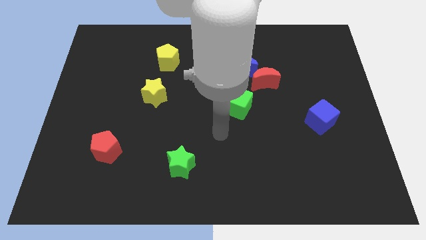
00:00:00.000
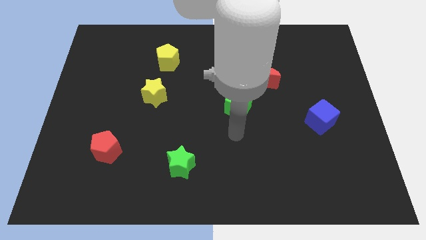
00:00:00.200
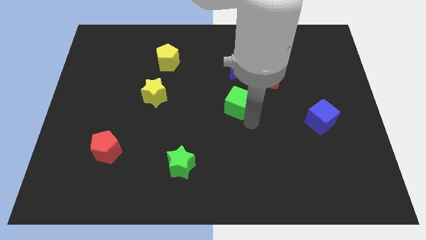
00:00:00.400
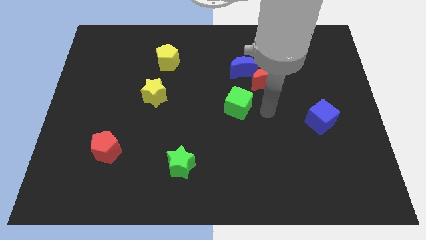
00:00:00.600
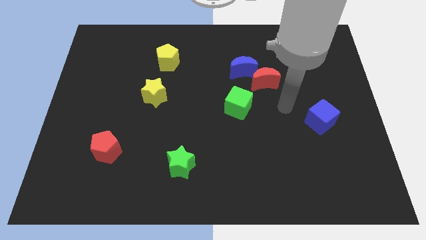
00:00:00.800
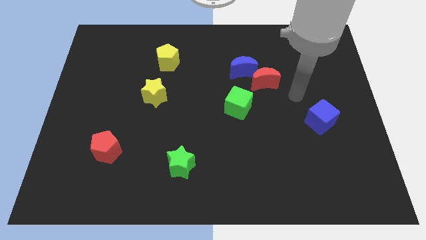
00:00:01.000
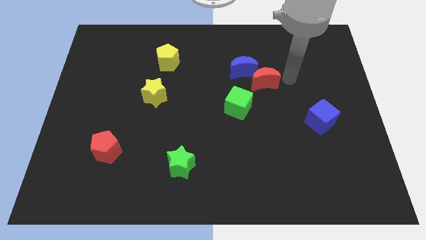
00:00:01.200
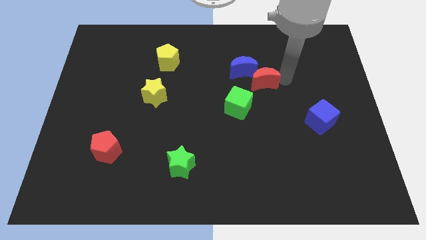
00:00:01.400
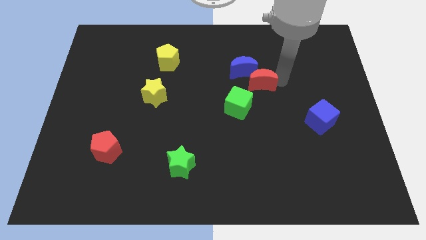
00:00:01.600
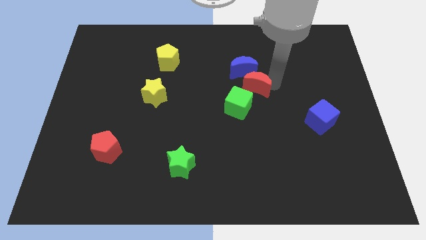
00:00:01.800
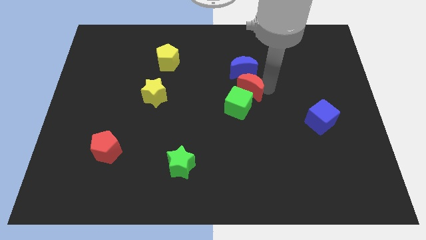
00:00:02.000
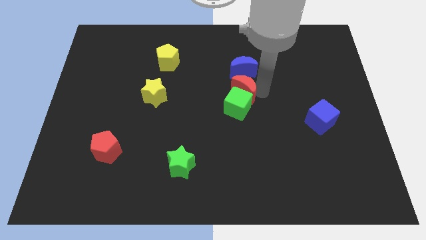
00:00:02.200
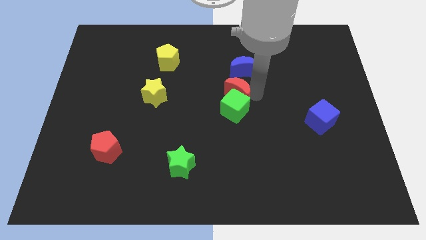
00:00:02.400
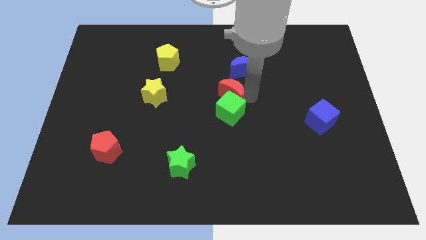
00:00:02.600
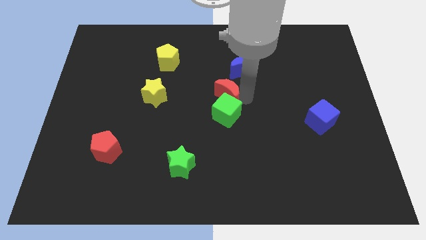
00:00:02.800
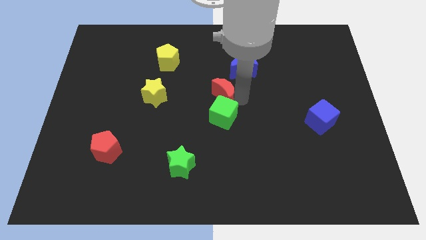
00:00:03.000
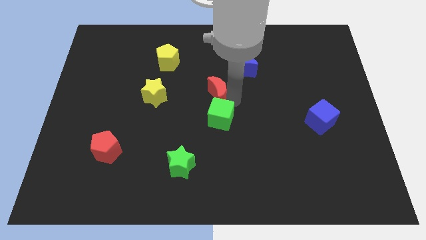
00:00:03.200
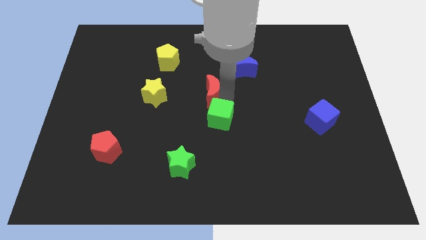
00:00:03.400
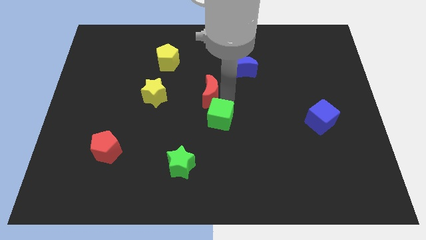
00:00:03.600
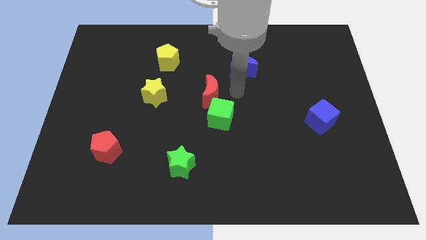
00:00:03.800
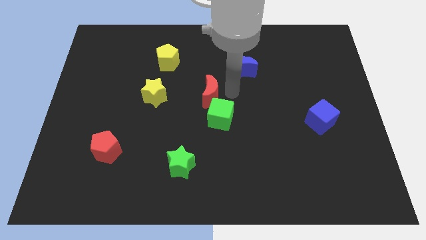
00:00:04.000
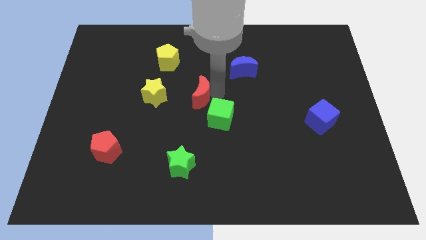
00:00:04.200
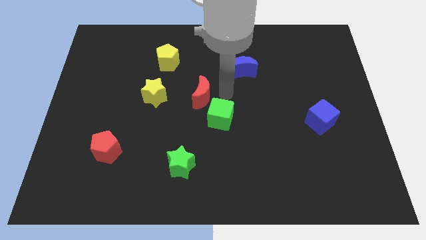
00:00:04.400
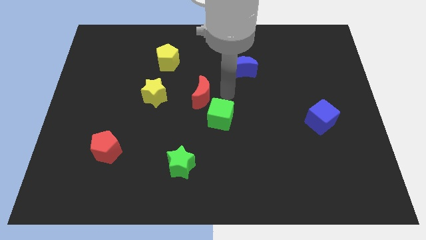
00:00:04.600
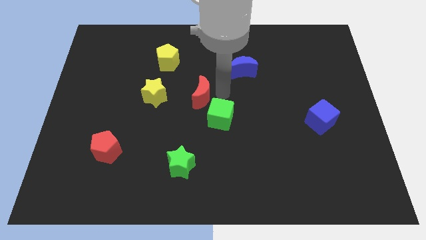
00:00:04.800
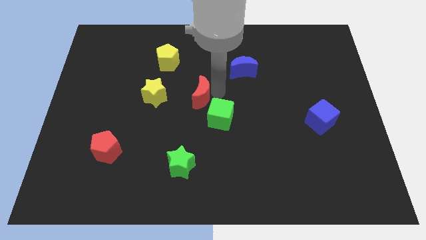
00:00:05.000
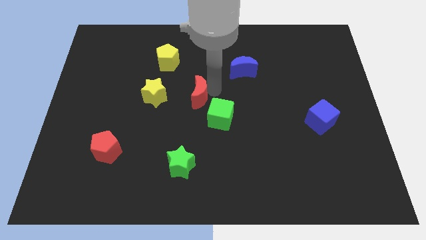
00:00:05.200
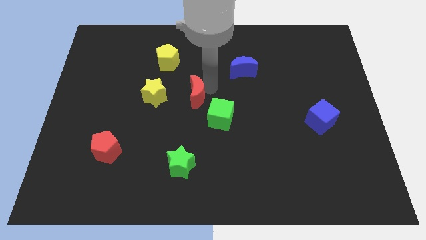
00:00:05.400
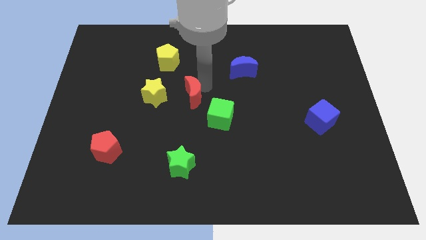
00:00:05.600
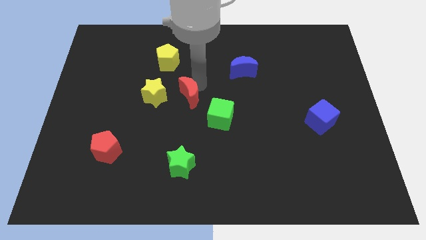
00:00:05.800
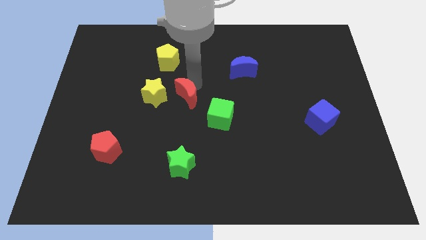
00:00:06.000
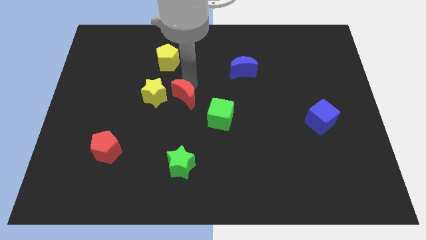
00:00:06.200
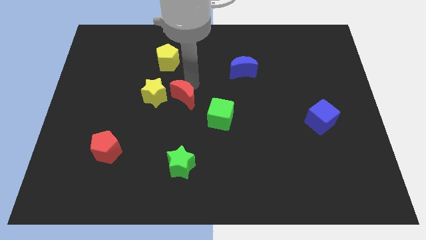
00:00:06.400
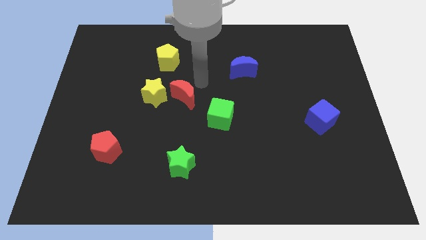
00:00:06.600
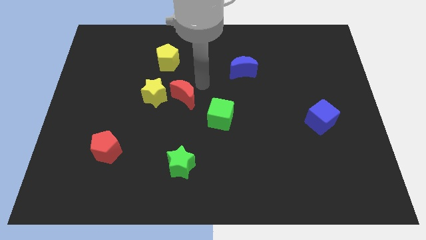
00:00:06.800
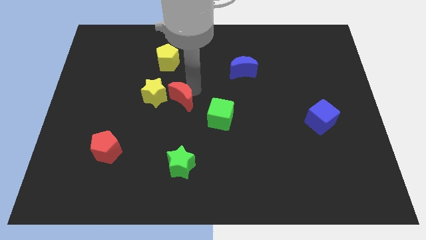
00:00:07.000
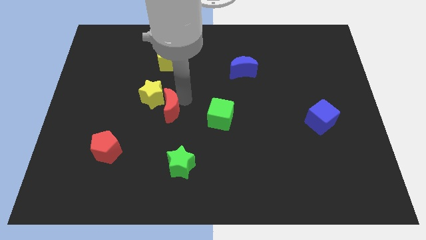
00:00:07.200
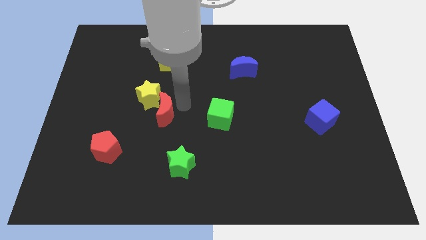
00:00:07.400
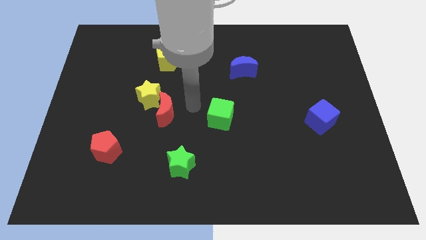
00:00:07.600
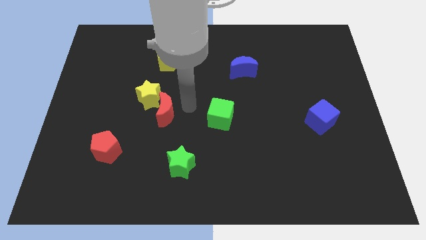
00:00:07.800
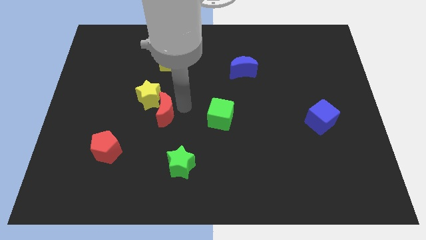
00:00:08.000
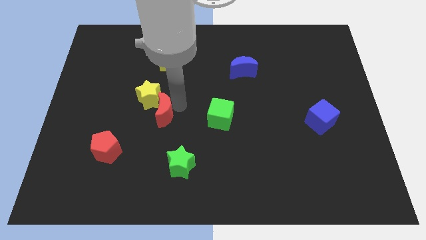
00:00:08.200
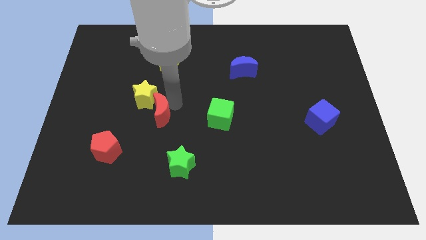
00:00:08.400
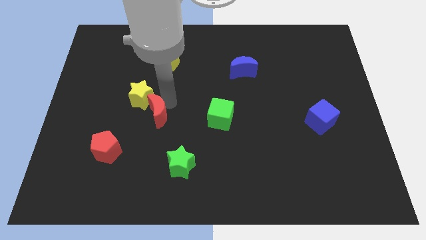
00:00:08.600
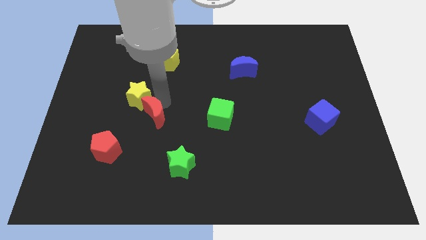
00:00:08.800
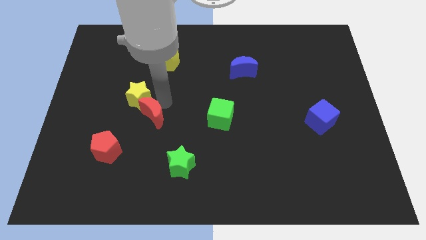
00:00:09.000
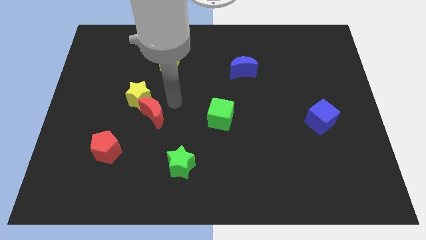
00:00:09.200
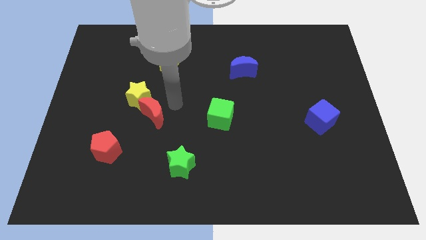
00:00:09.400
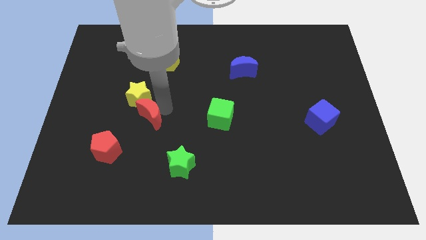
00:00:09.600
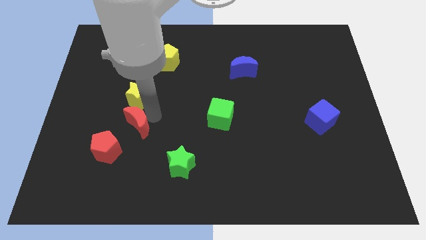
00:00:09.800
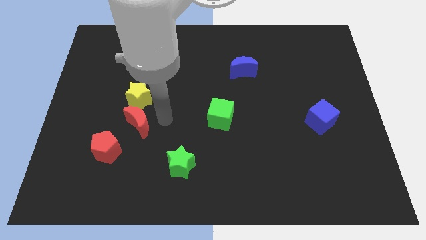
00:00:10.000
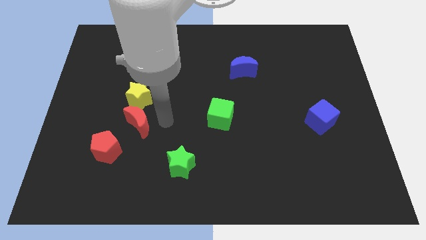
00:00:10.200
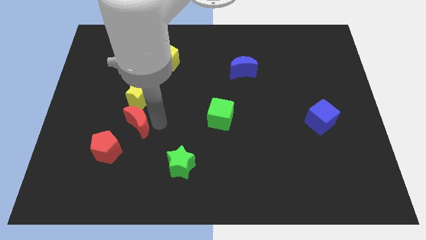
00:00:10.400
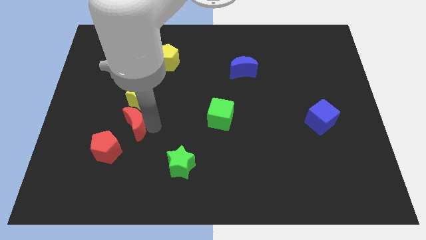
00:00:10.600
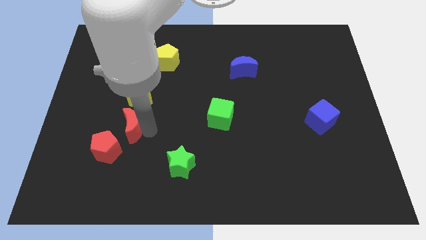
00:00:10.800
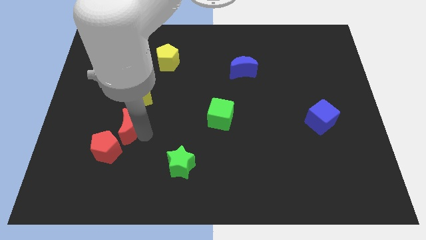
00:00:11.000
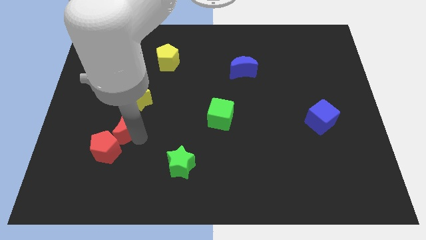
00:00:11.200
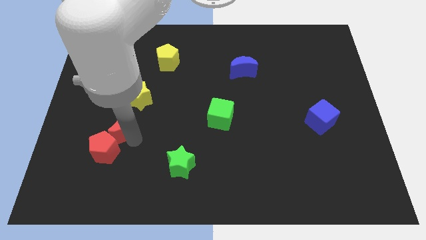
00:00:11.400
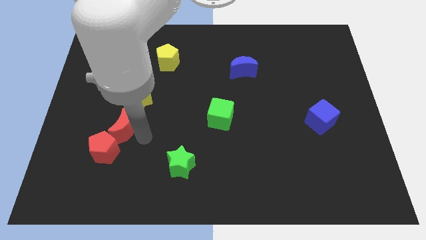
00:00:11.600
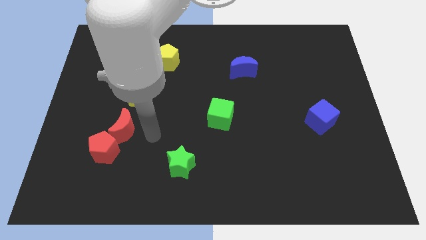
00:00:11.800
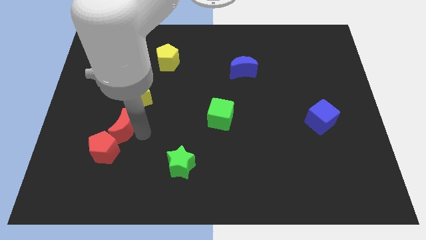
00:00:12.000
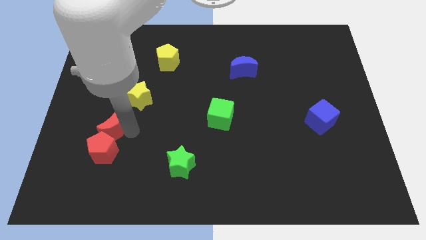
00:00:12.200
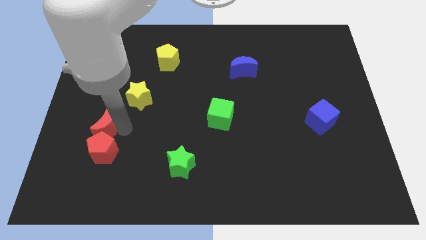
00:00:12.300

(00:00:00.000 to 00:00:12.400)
move the red moon to the top left of the red pentagon

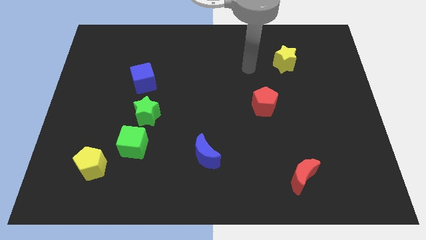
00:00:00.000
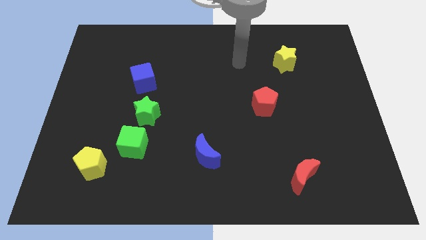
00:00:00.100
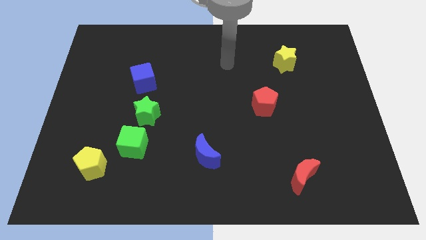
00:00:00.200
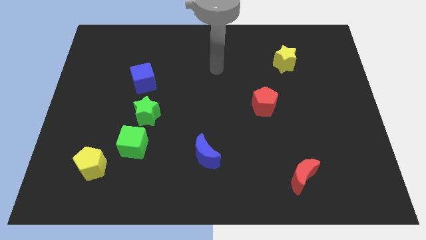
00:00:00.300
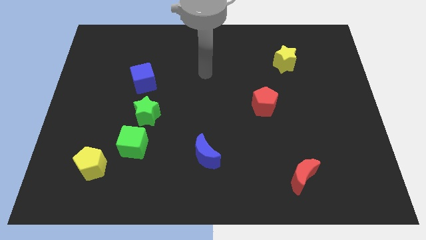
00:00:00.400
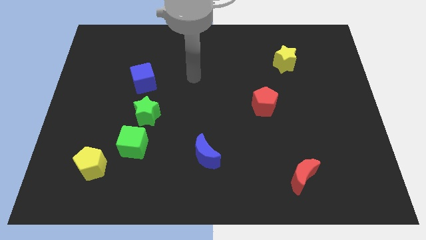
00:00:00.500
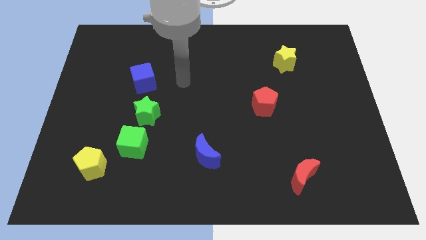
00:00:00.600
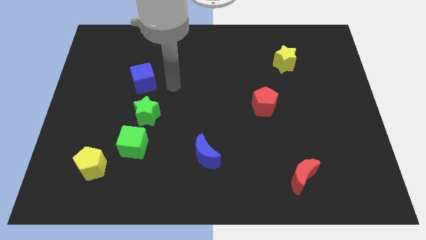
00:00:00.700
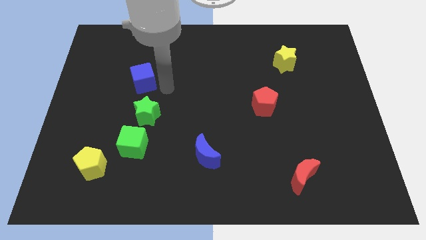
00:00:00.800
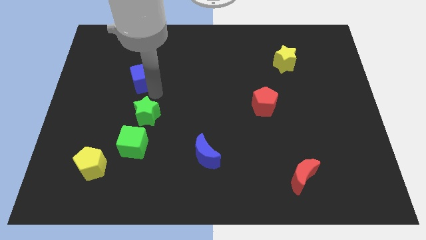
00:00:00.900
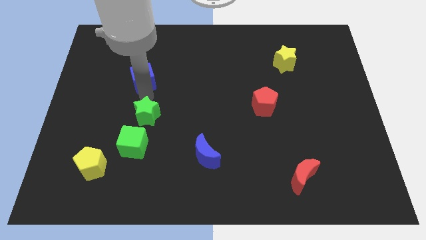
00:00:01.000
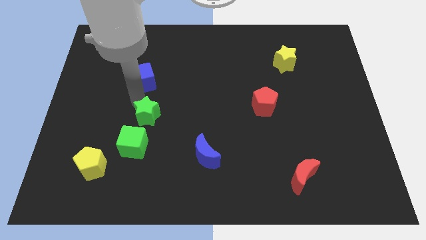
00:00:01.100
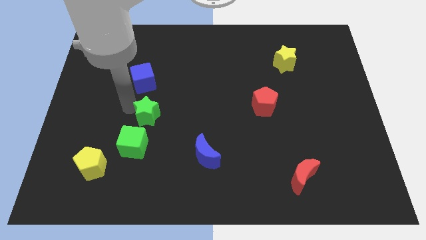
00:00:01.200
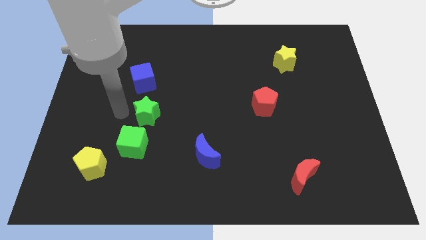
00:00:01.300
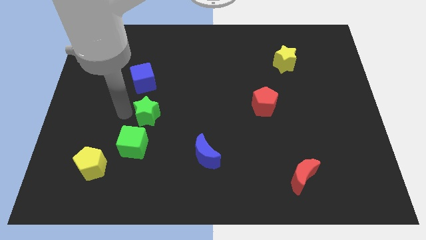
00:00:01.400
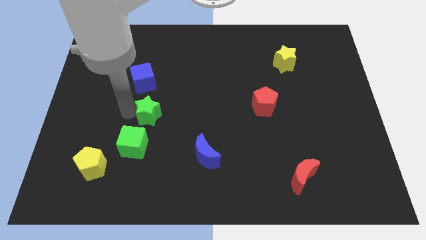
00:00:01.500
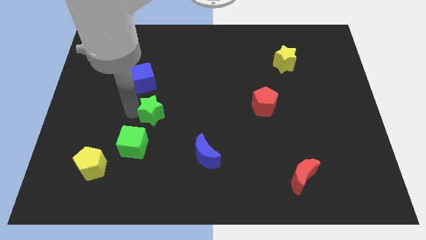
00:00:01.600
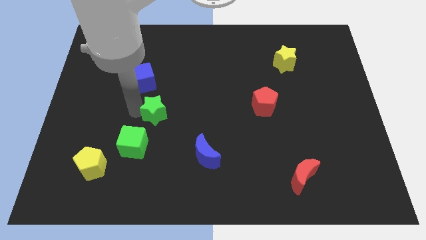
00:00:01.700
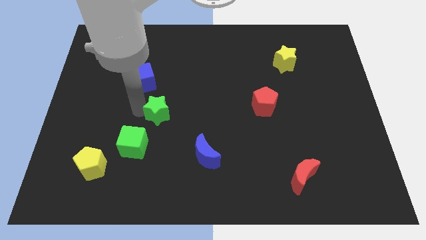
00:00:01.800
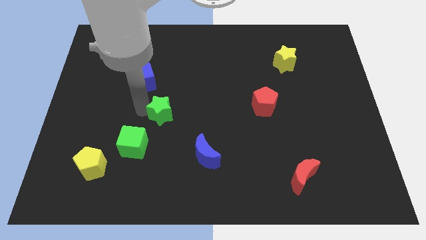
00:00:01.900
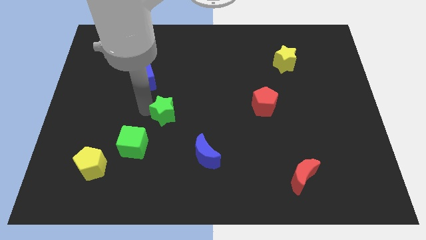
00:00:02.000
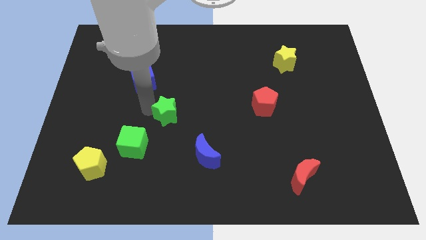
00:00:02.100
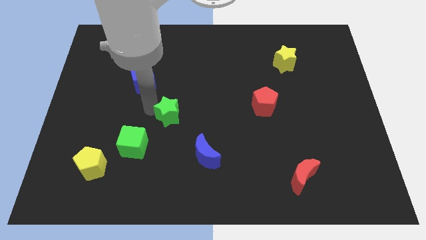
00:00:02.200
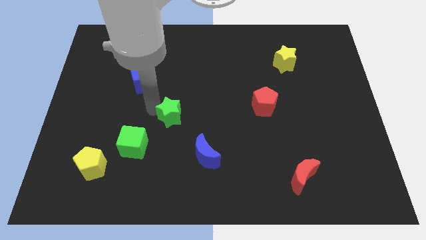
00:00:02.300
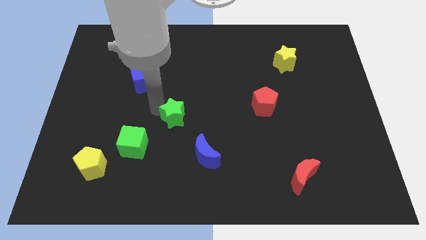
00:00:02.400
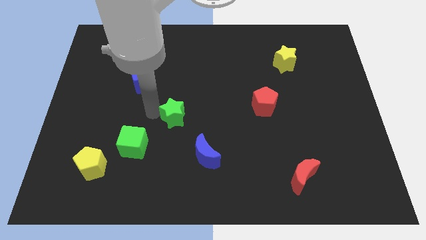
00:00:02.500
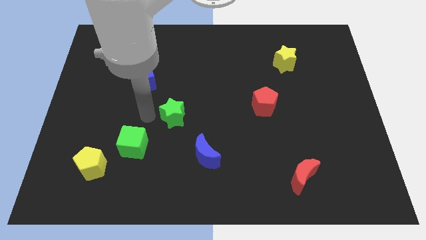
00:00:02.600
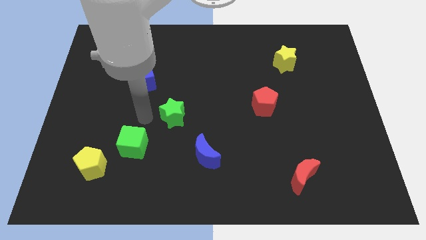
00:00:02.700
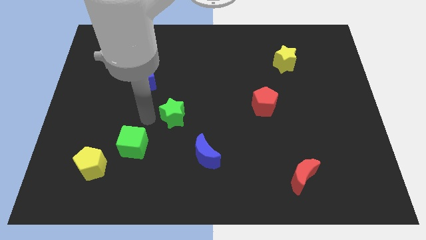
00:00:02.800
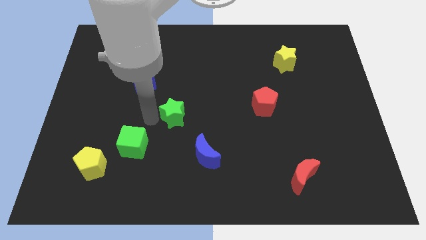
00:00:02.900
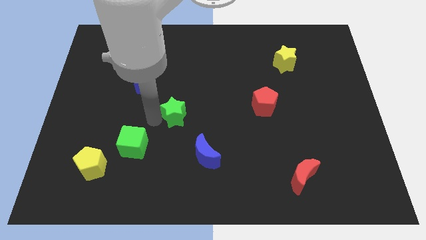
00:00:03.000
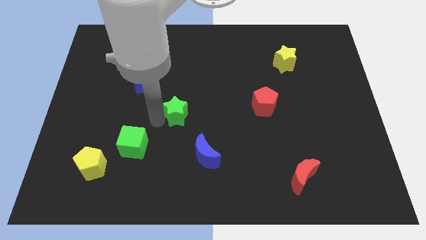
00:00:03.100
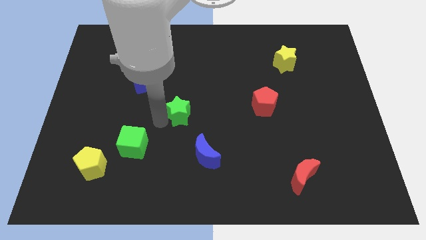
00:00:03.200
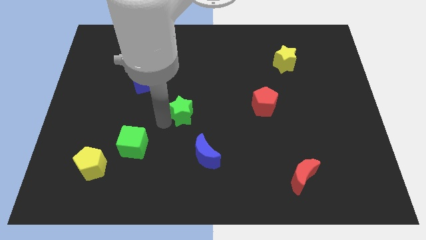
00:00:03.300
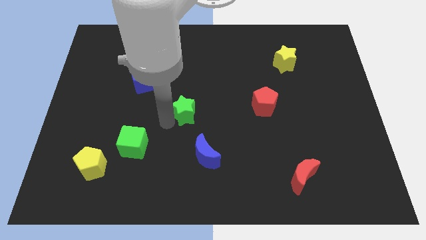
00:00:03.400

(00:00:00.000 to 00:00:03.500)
move the green star above the blue moon
